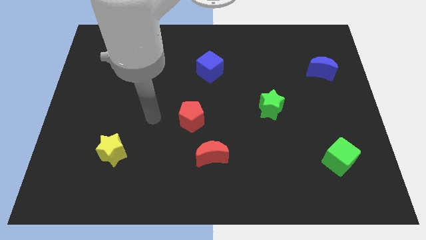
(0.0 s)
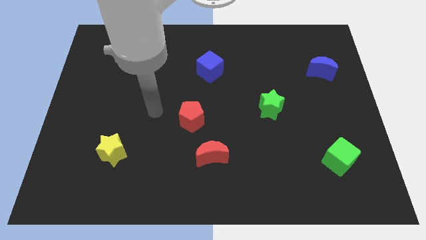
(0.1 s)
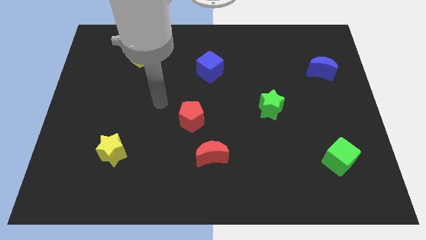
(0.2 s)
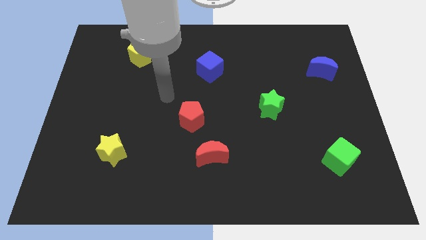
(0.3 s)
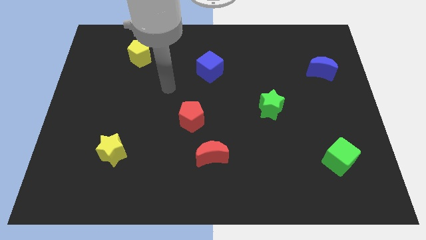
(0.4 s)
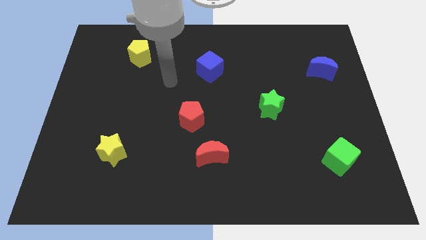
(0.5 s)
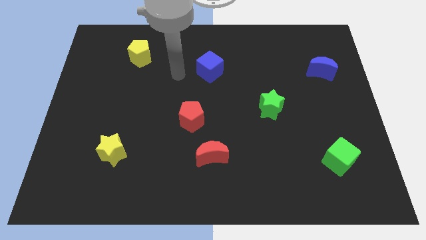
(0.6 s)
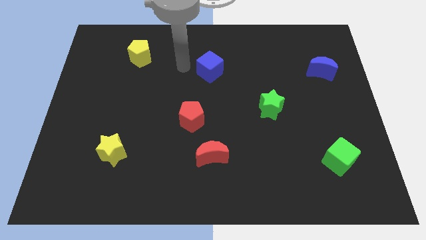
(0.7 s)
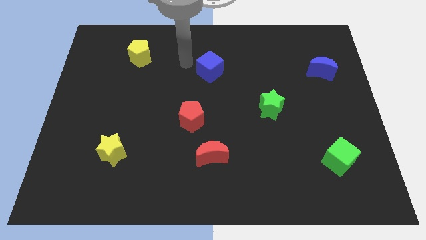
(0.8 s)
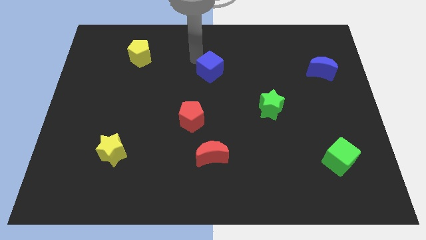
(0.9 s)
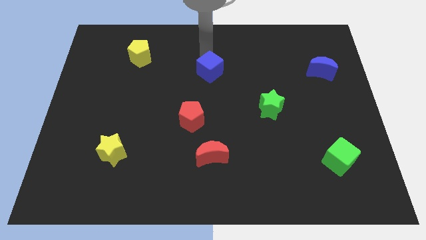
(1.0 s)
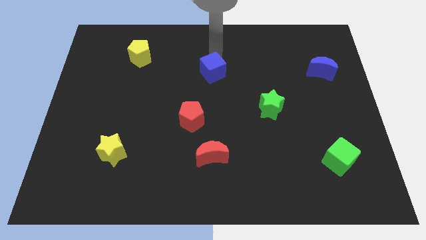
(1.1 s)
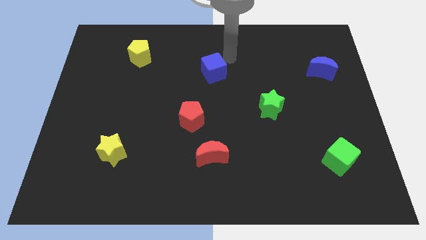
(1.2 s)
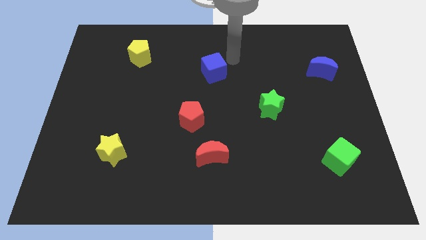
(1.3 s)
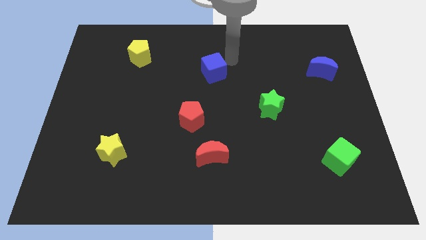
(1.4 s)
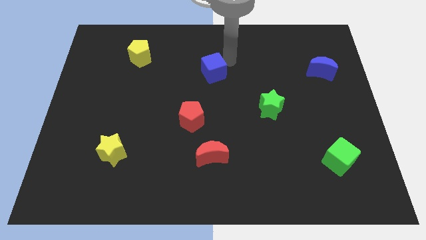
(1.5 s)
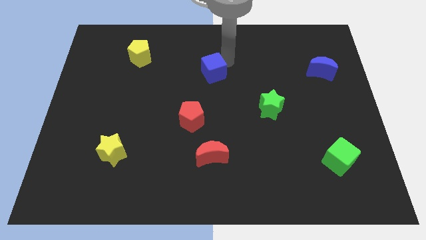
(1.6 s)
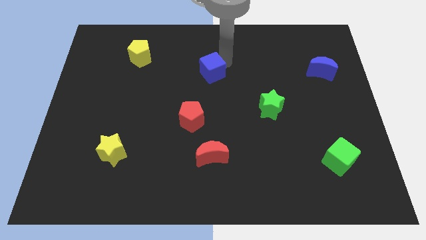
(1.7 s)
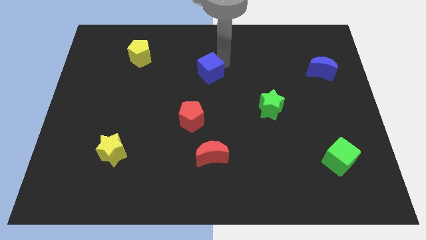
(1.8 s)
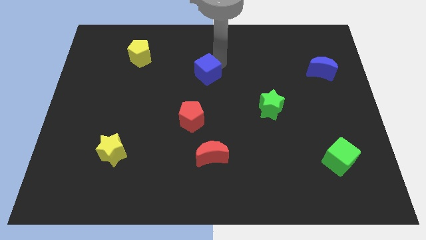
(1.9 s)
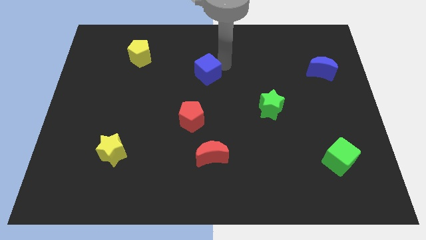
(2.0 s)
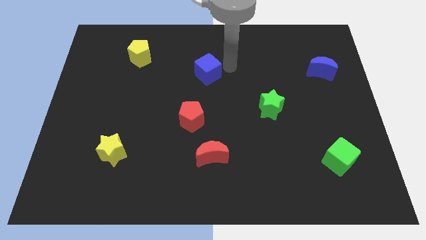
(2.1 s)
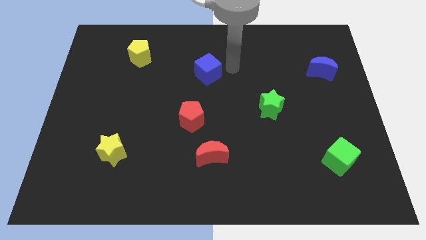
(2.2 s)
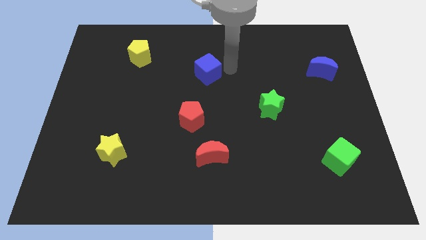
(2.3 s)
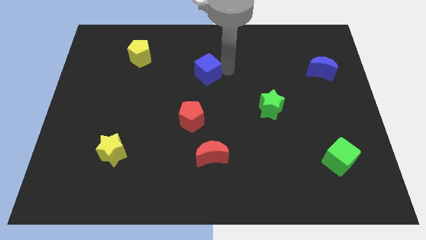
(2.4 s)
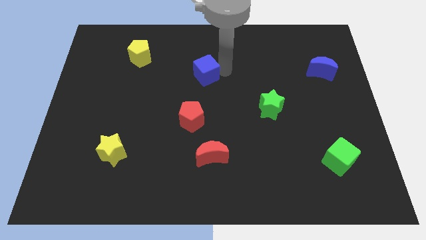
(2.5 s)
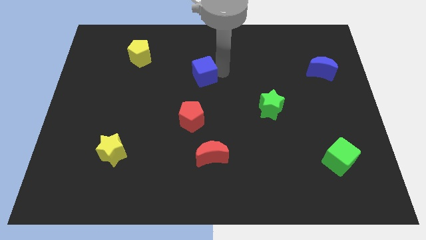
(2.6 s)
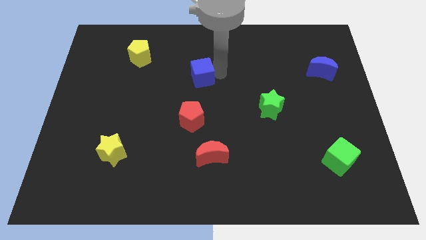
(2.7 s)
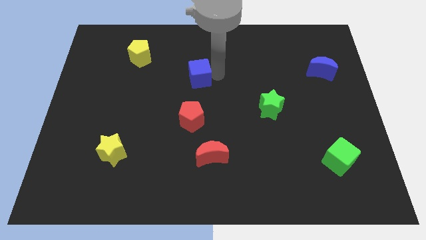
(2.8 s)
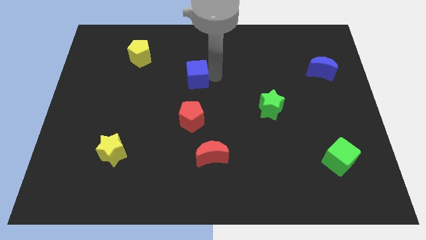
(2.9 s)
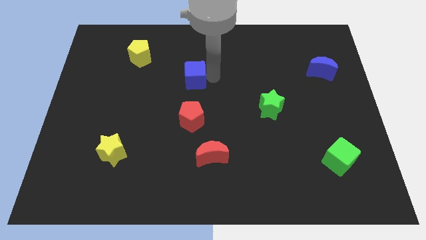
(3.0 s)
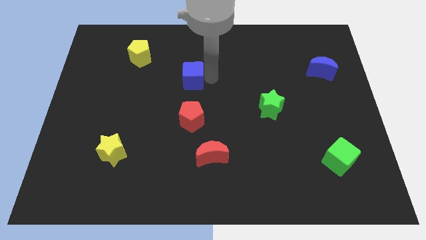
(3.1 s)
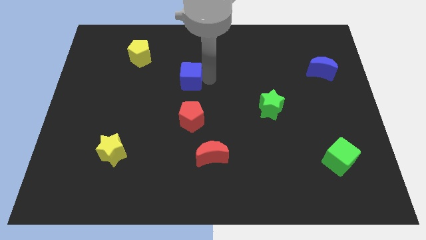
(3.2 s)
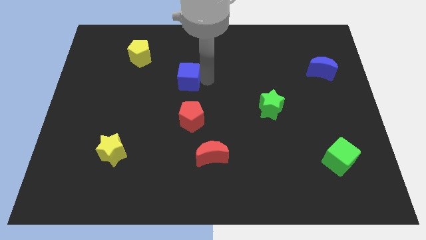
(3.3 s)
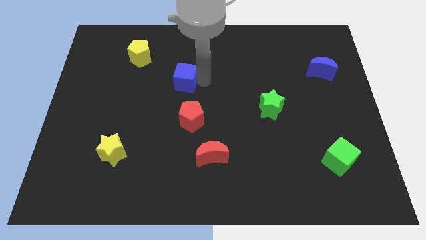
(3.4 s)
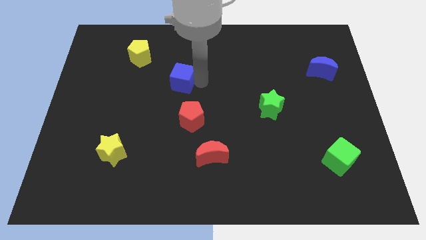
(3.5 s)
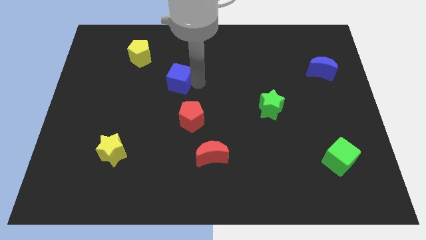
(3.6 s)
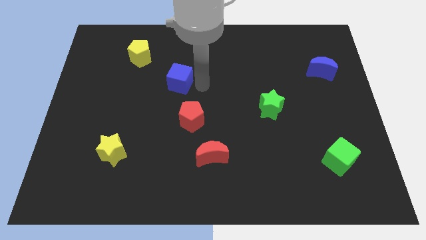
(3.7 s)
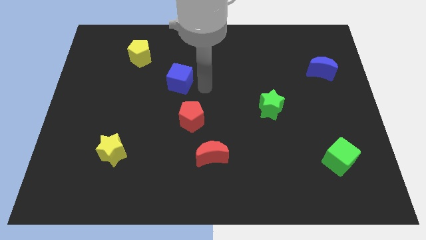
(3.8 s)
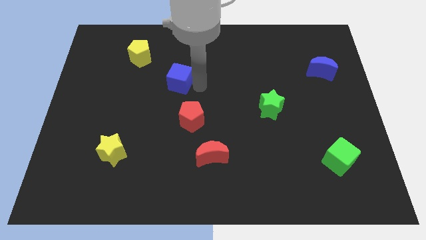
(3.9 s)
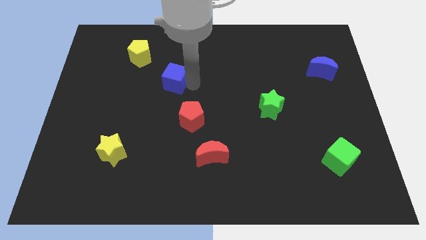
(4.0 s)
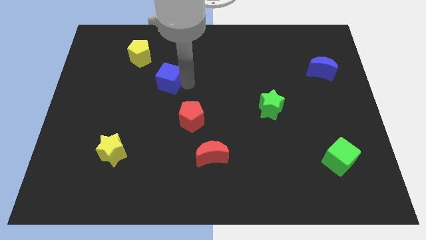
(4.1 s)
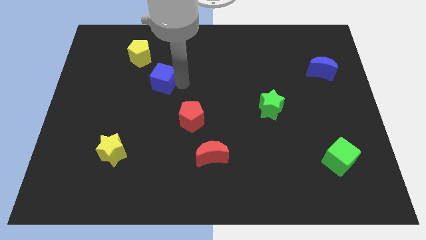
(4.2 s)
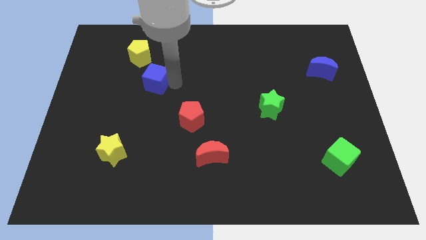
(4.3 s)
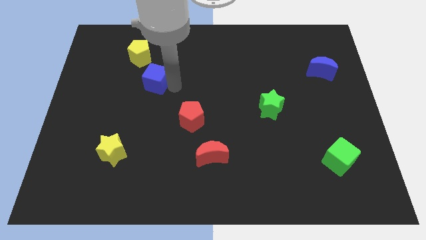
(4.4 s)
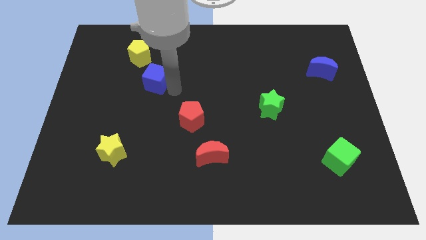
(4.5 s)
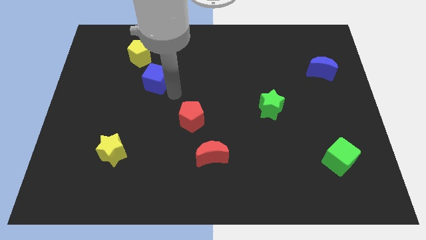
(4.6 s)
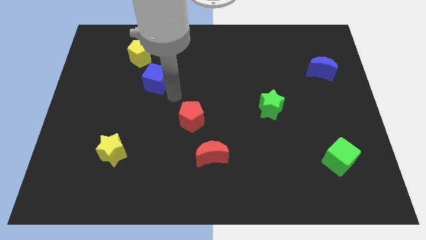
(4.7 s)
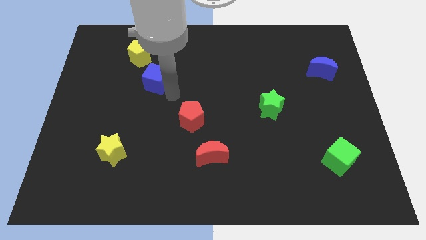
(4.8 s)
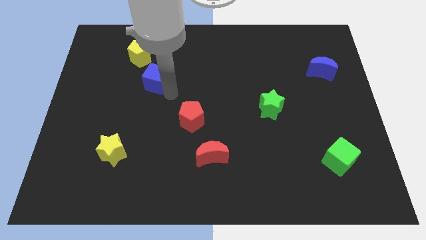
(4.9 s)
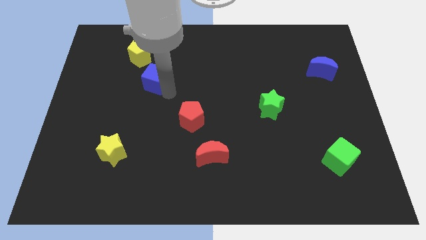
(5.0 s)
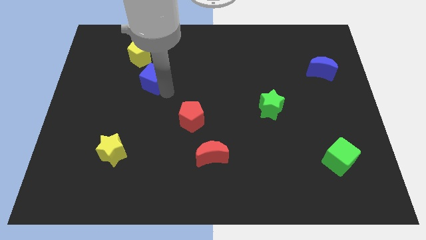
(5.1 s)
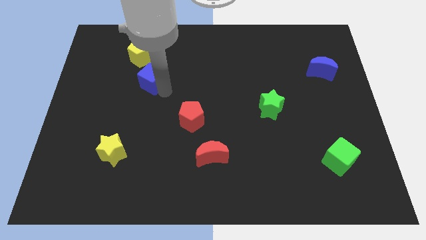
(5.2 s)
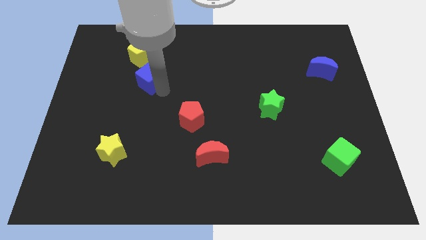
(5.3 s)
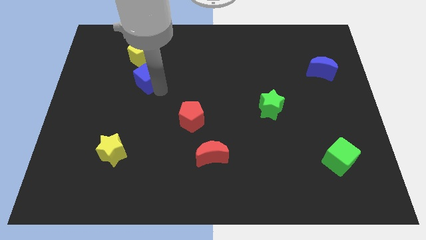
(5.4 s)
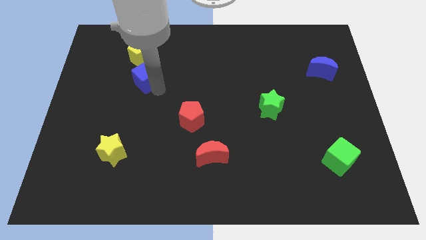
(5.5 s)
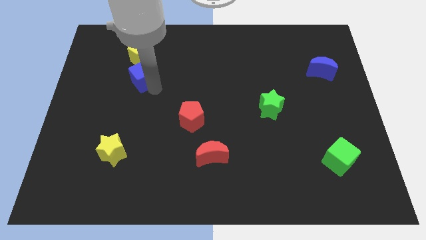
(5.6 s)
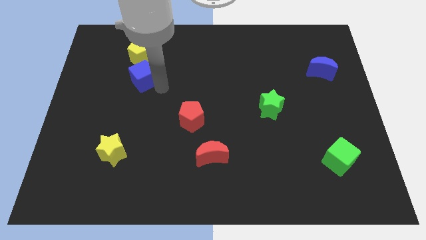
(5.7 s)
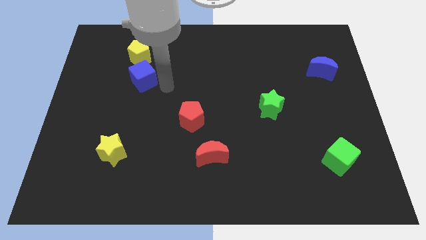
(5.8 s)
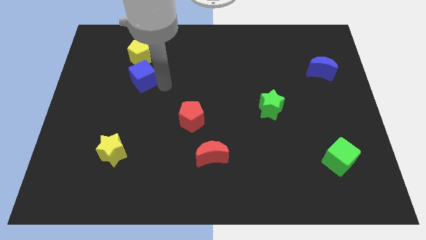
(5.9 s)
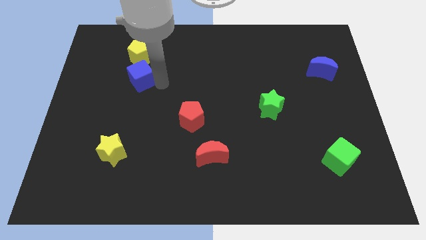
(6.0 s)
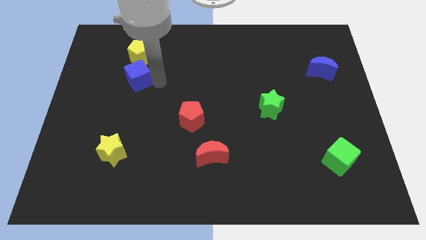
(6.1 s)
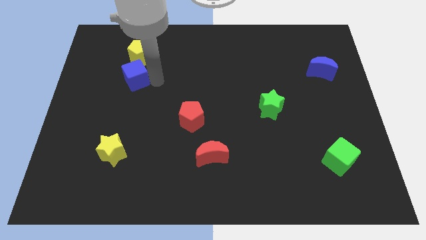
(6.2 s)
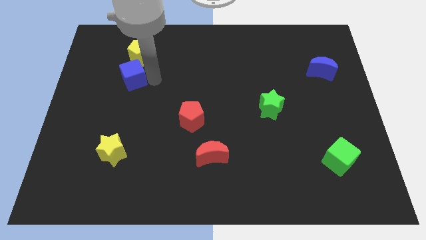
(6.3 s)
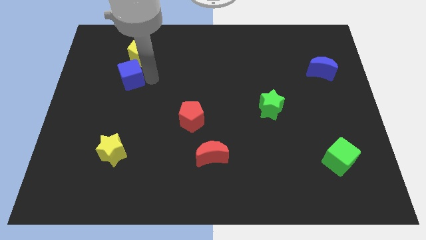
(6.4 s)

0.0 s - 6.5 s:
move the blue cube to the bottom left of the yellow pentagon
